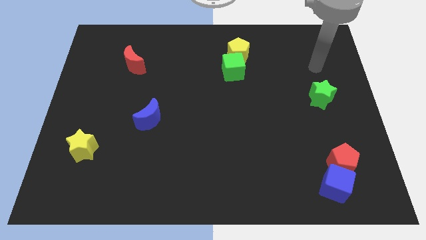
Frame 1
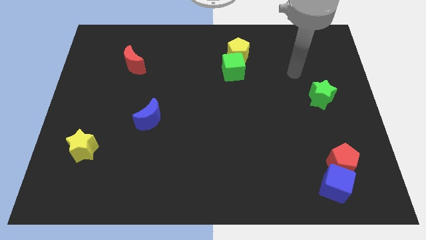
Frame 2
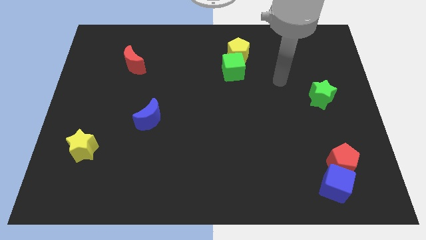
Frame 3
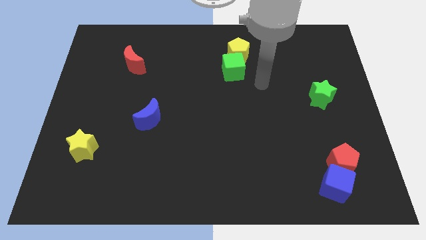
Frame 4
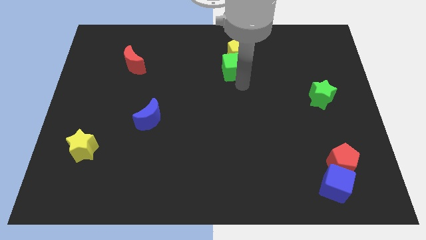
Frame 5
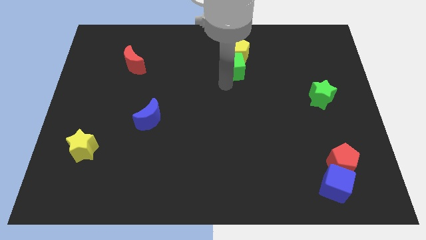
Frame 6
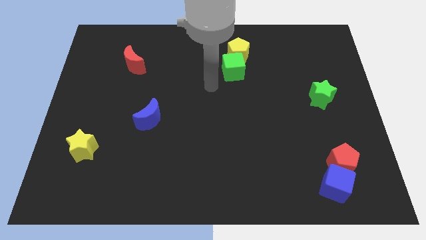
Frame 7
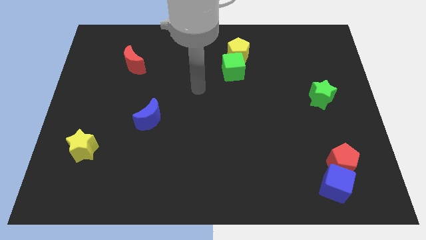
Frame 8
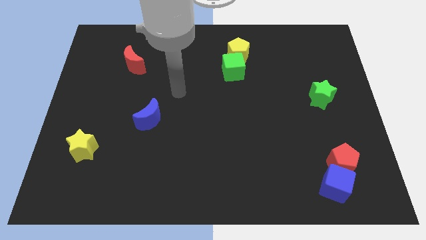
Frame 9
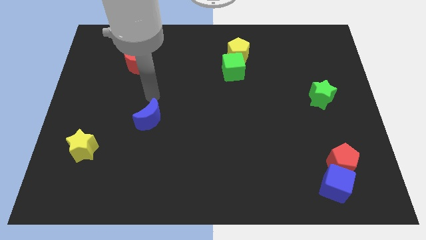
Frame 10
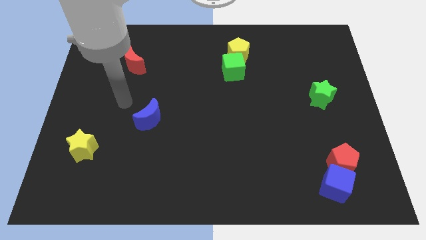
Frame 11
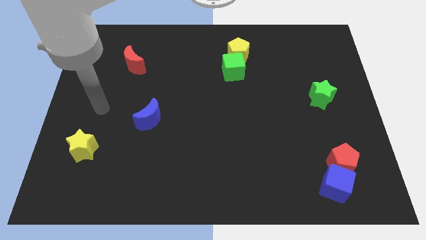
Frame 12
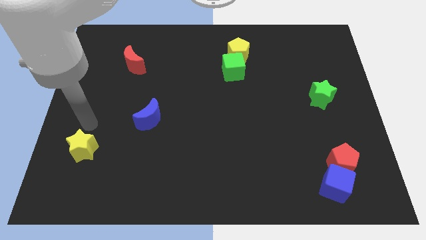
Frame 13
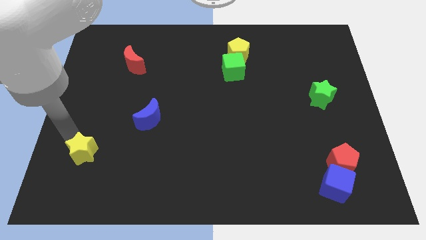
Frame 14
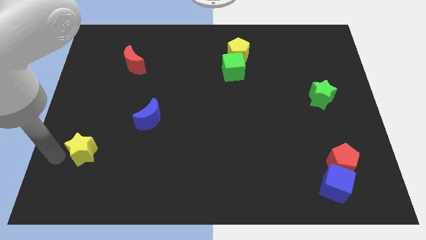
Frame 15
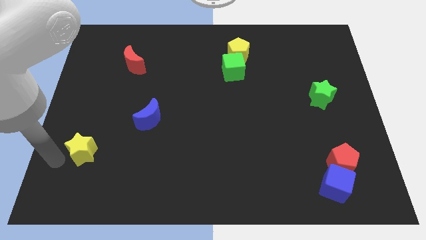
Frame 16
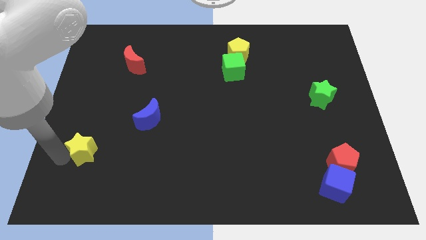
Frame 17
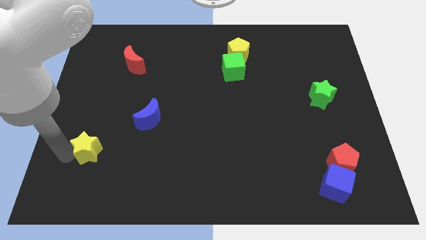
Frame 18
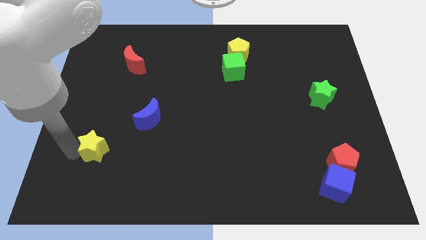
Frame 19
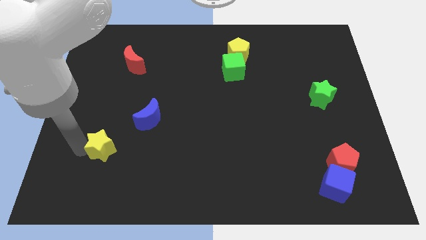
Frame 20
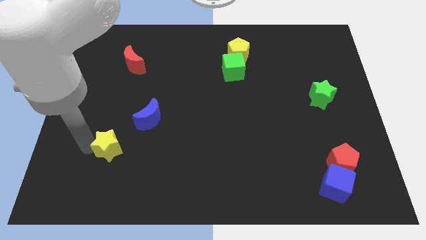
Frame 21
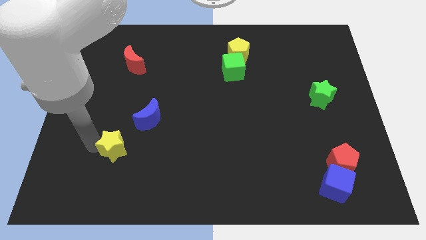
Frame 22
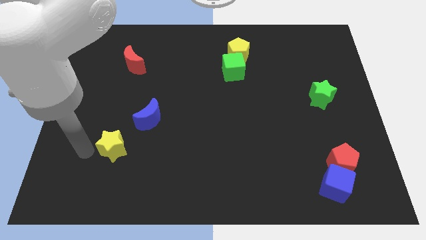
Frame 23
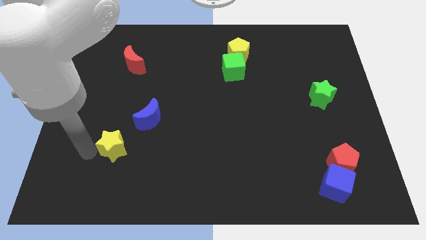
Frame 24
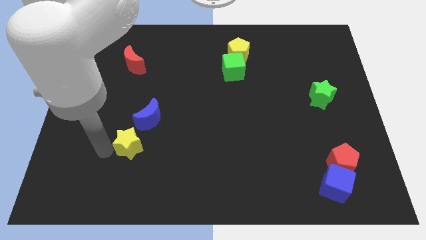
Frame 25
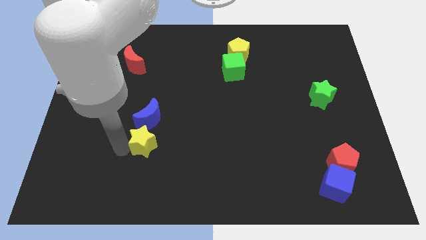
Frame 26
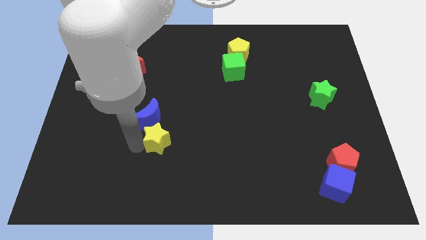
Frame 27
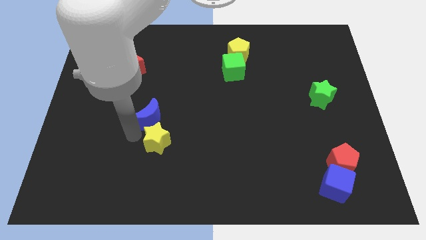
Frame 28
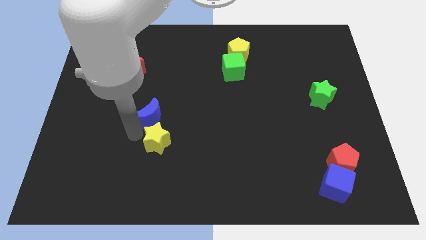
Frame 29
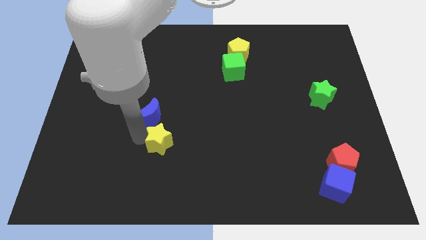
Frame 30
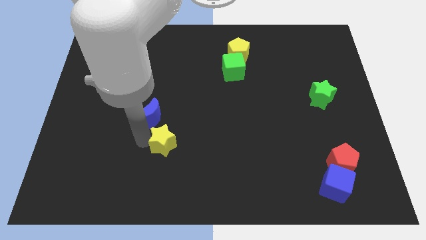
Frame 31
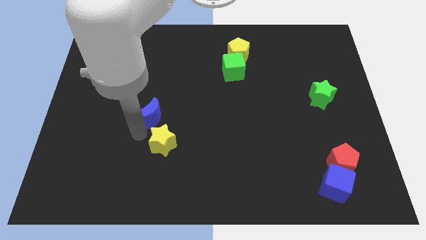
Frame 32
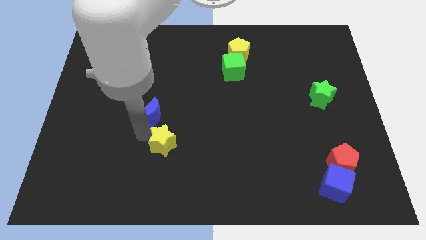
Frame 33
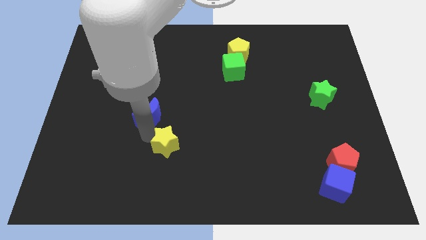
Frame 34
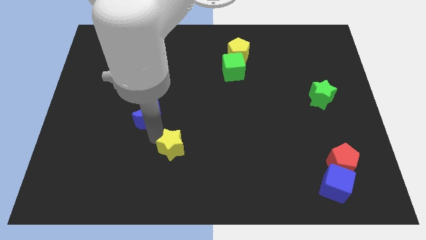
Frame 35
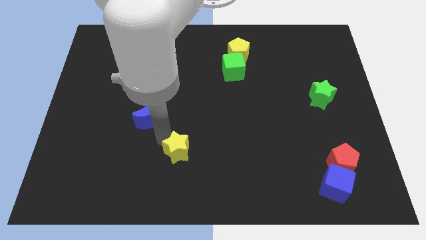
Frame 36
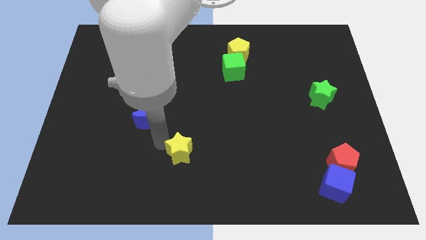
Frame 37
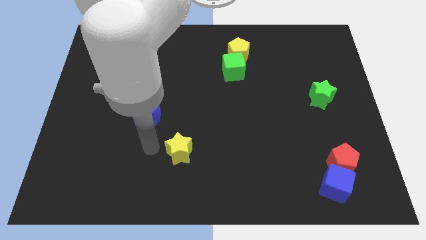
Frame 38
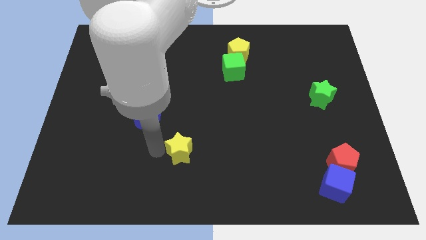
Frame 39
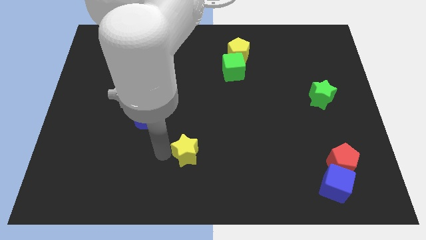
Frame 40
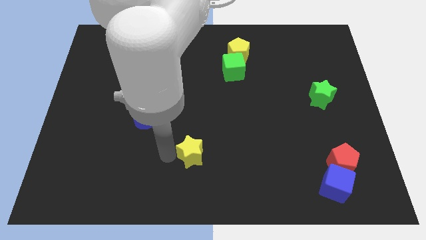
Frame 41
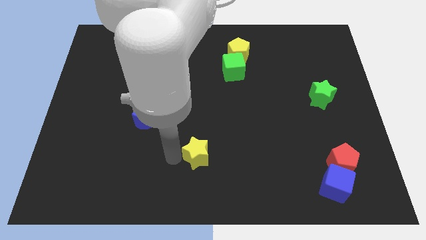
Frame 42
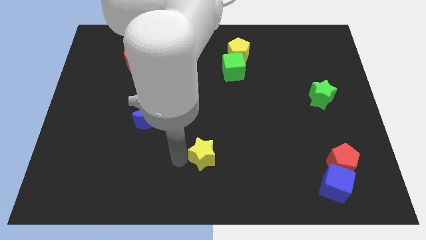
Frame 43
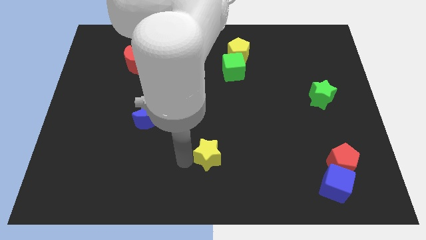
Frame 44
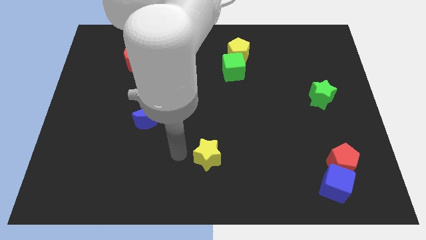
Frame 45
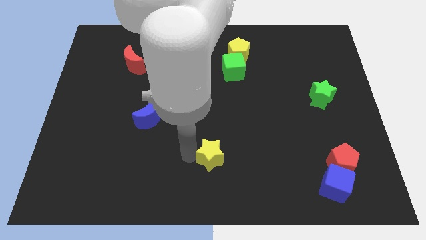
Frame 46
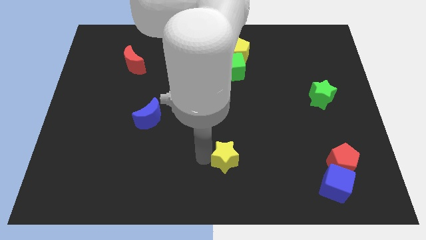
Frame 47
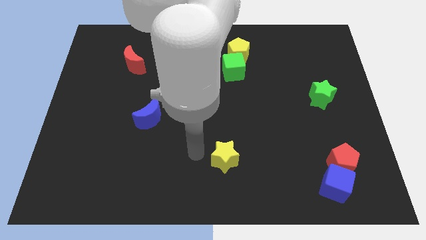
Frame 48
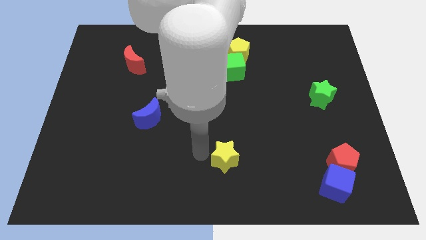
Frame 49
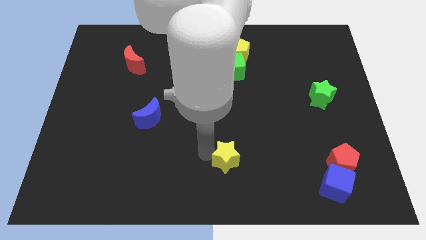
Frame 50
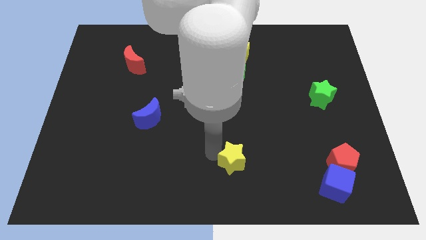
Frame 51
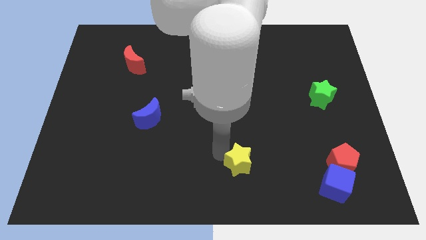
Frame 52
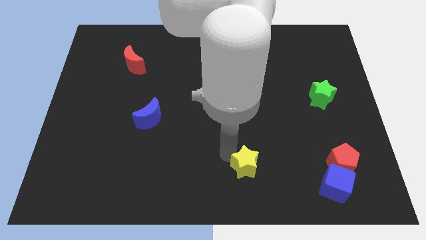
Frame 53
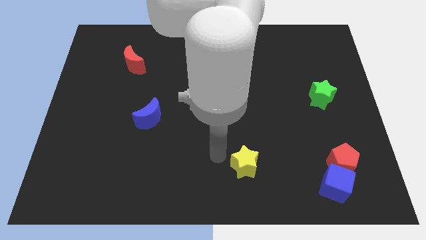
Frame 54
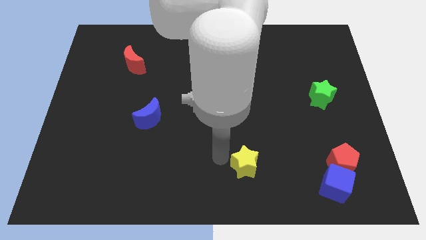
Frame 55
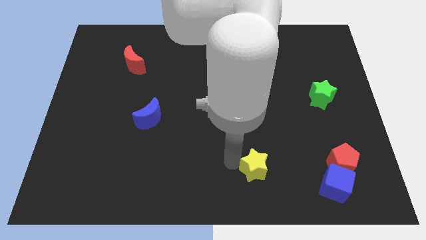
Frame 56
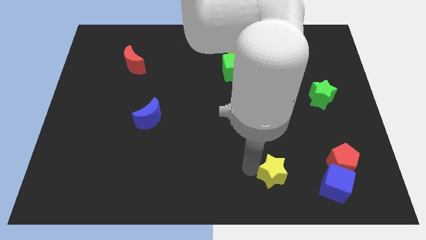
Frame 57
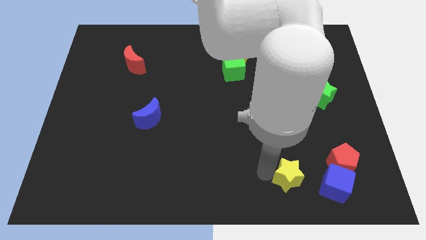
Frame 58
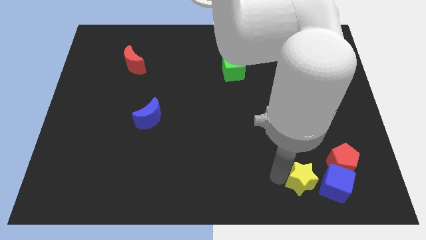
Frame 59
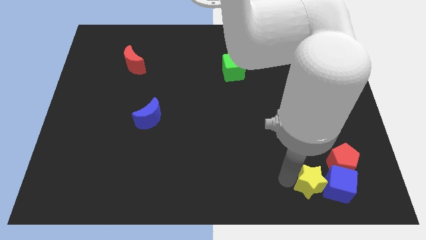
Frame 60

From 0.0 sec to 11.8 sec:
slide the yellow star to the blue cube

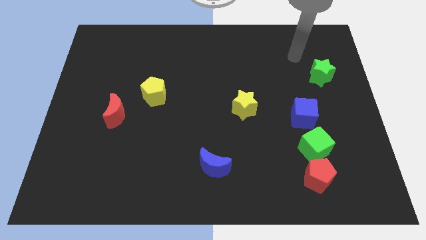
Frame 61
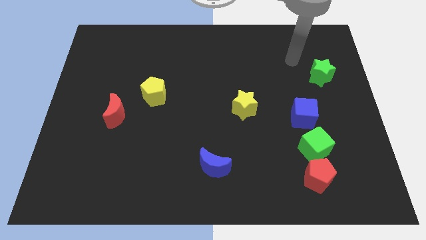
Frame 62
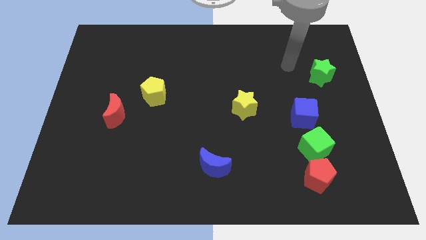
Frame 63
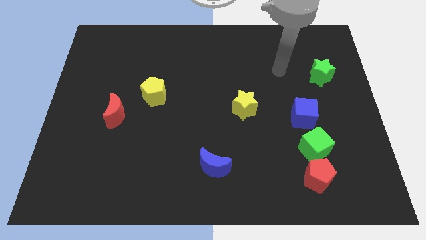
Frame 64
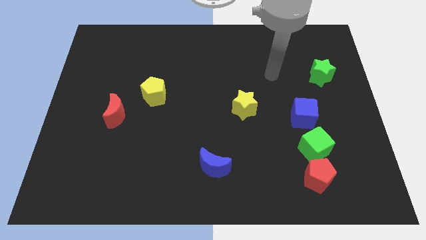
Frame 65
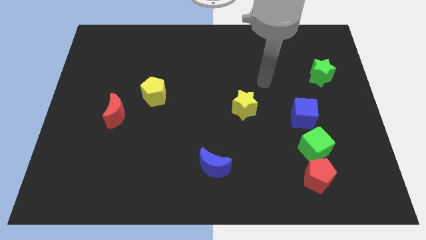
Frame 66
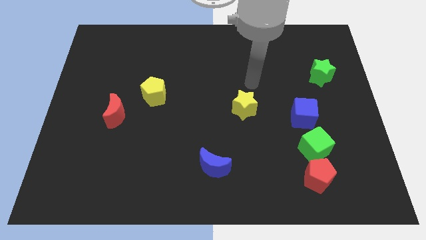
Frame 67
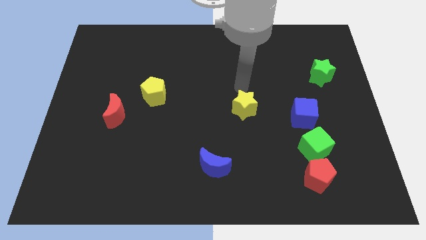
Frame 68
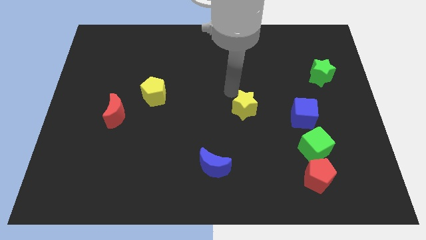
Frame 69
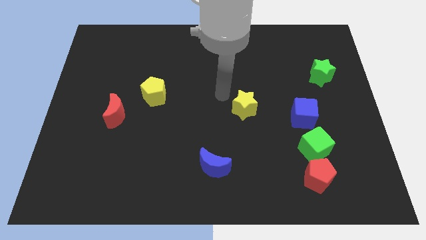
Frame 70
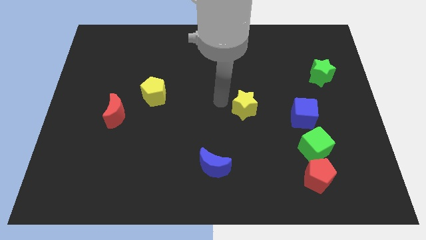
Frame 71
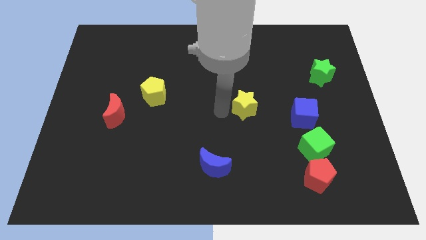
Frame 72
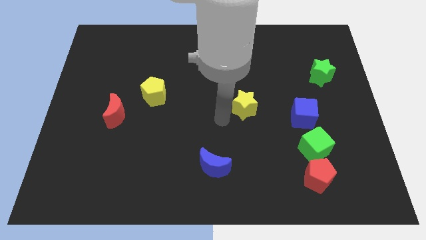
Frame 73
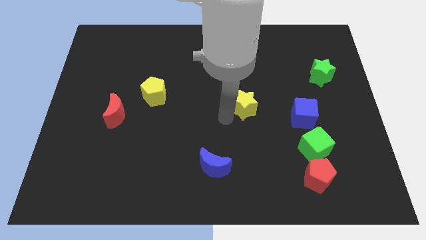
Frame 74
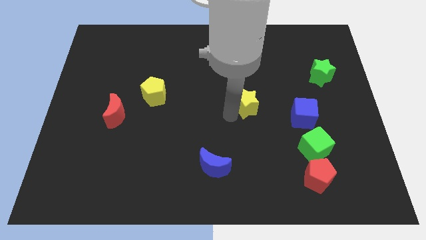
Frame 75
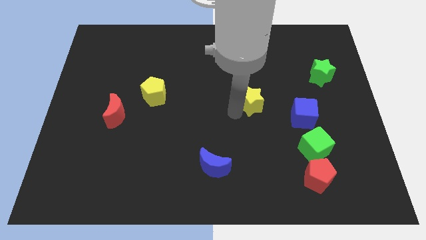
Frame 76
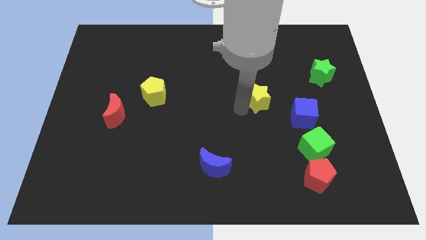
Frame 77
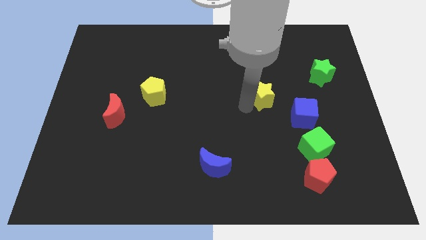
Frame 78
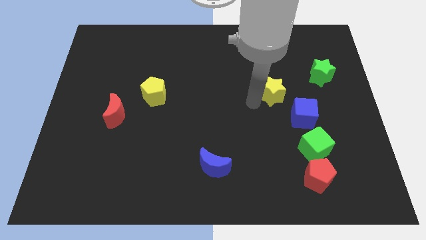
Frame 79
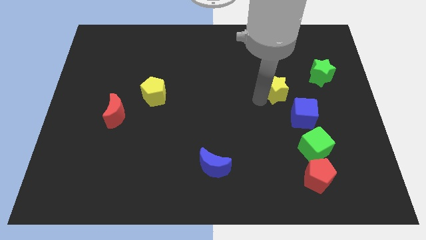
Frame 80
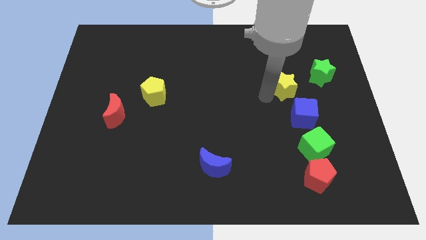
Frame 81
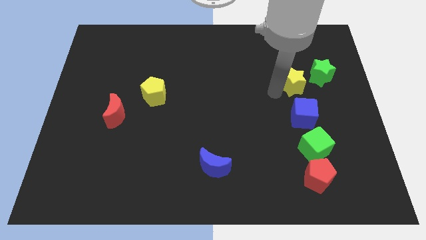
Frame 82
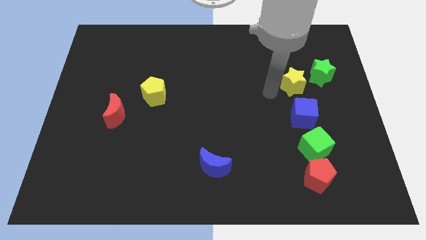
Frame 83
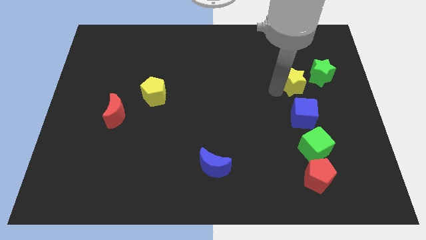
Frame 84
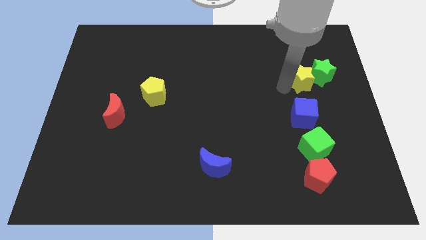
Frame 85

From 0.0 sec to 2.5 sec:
push the yellow star to the green star
